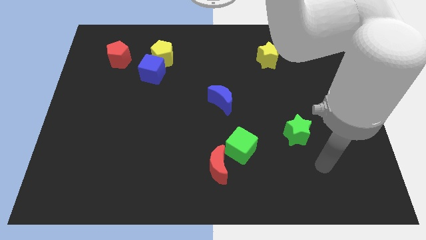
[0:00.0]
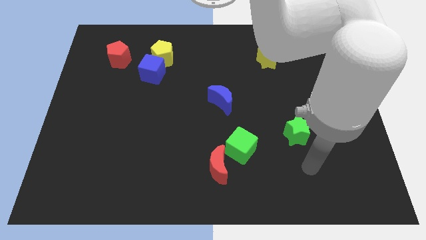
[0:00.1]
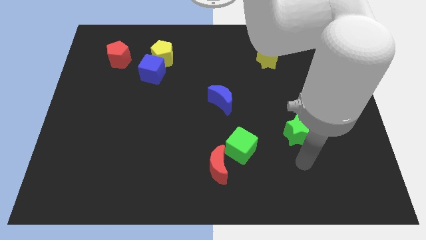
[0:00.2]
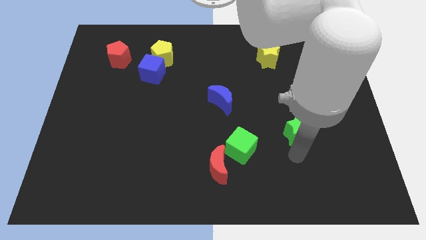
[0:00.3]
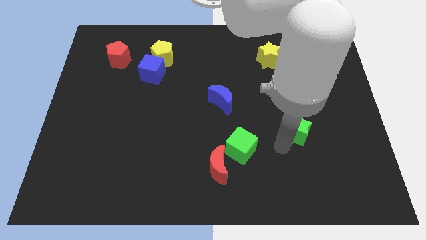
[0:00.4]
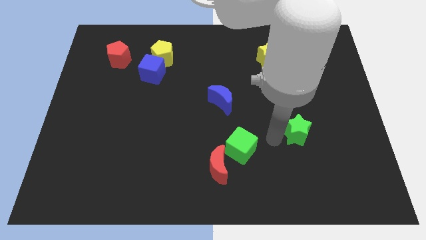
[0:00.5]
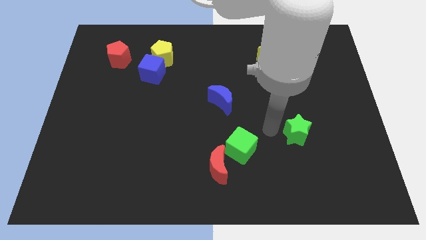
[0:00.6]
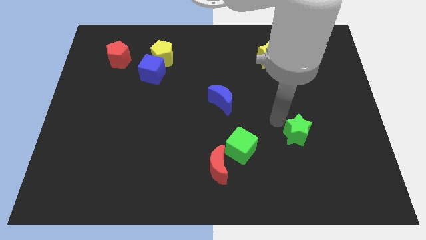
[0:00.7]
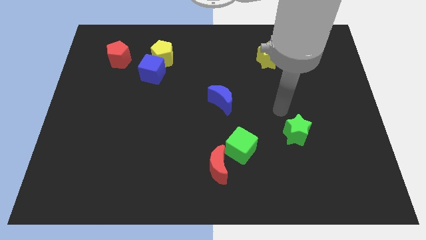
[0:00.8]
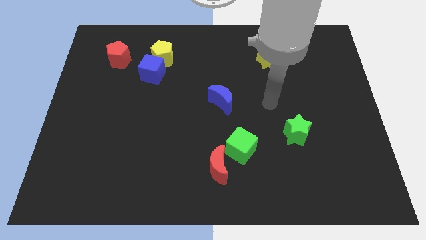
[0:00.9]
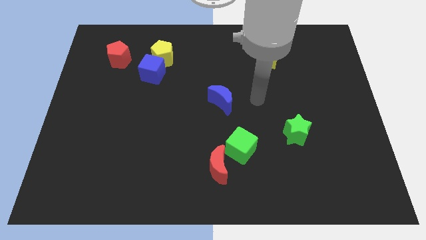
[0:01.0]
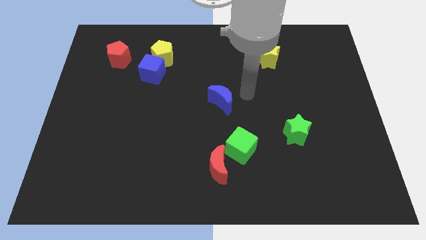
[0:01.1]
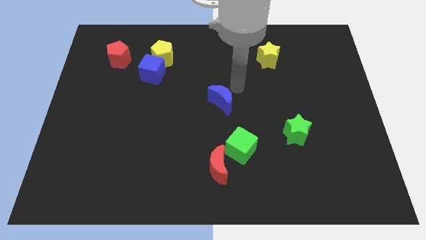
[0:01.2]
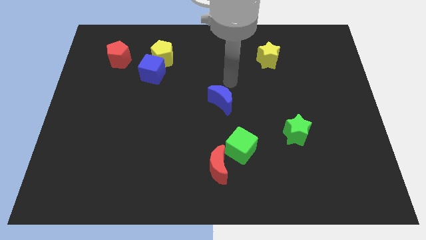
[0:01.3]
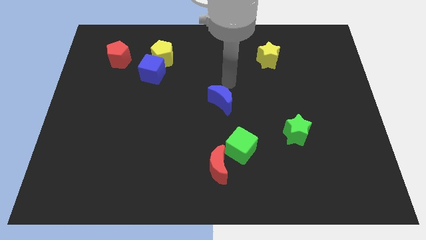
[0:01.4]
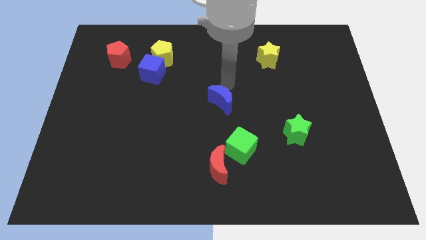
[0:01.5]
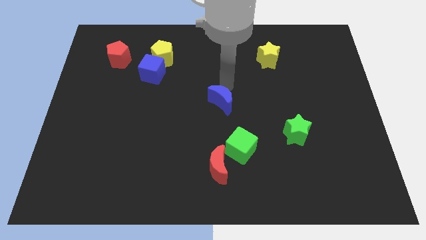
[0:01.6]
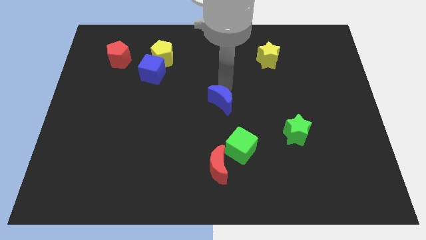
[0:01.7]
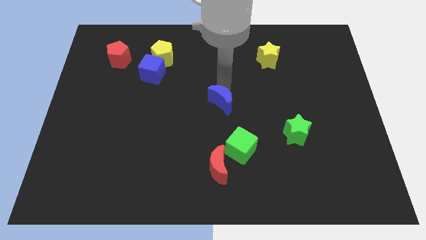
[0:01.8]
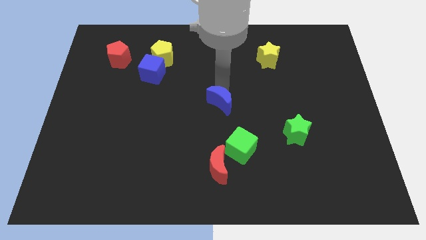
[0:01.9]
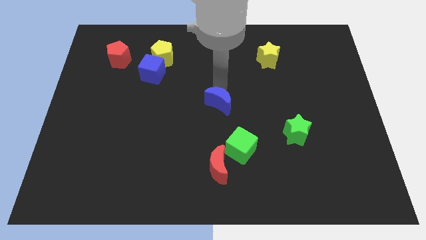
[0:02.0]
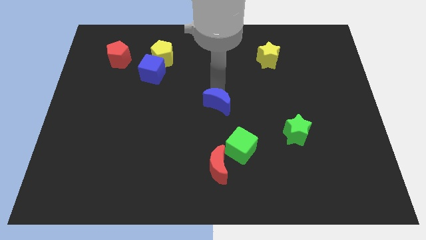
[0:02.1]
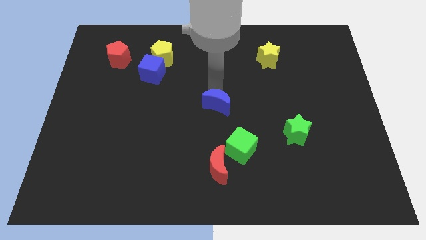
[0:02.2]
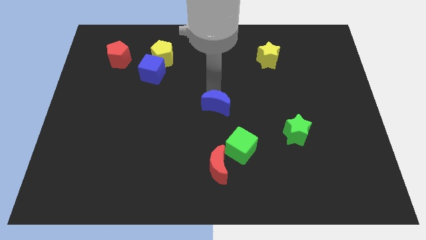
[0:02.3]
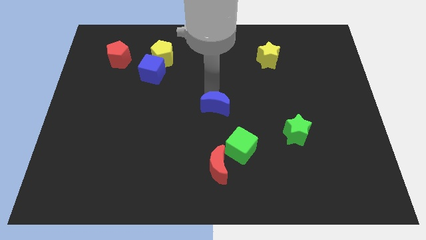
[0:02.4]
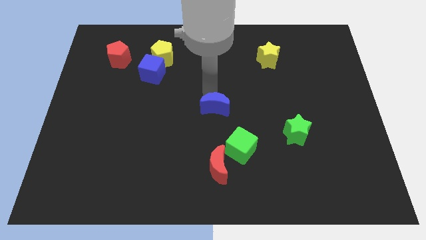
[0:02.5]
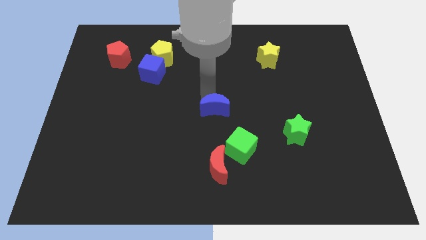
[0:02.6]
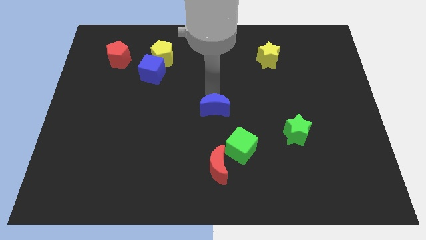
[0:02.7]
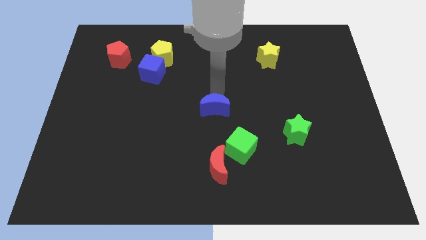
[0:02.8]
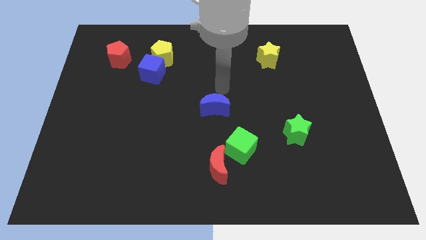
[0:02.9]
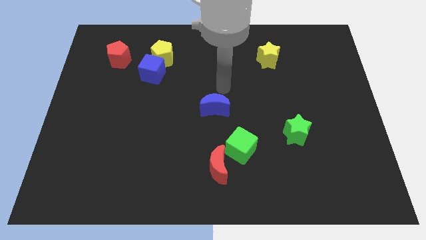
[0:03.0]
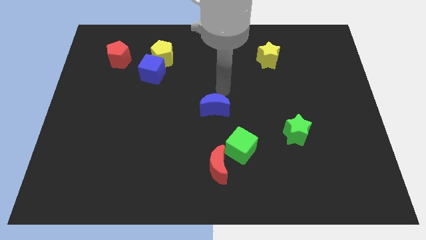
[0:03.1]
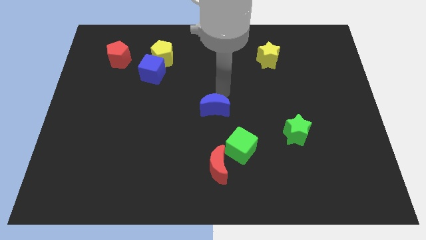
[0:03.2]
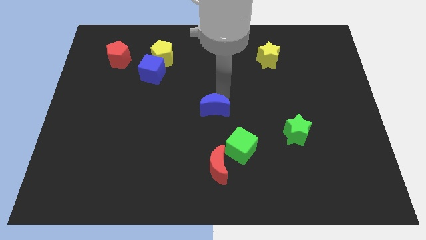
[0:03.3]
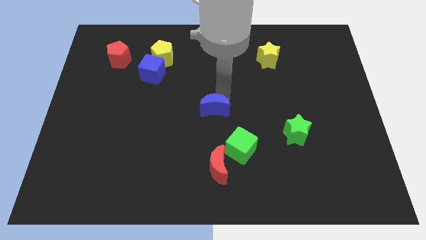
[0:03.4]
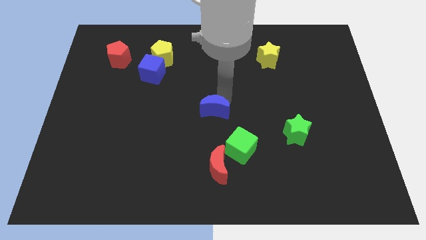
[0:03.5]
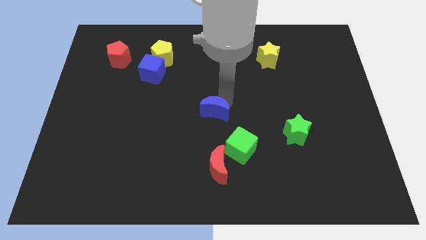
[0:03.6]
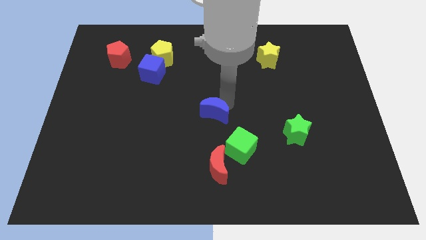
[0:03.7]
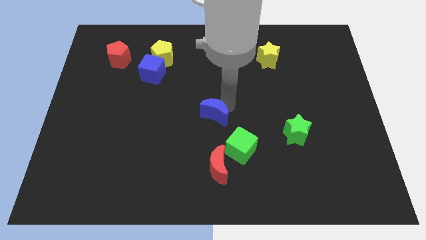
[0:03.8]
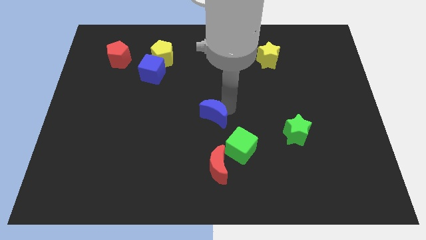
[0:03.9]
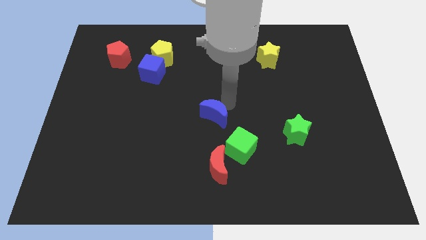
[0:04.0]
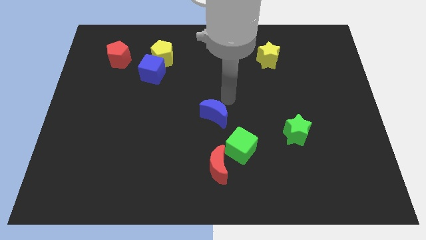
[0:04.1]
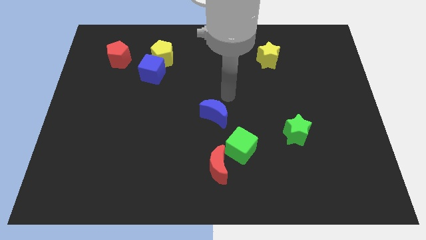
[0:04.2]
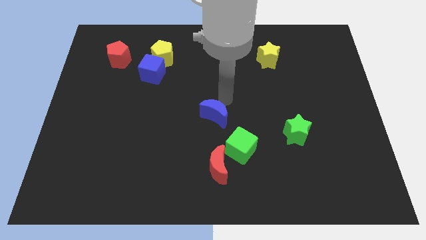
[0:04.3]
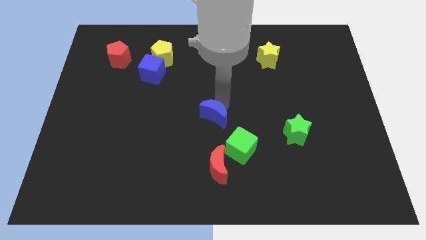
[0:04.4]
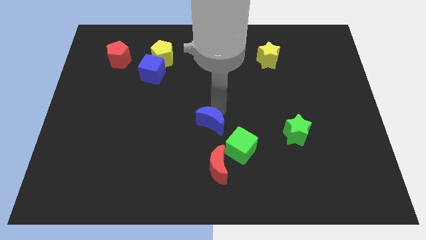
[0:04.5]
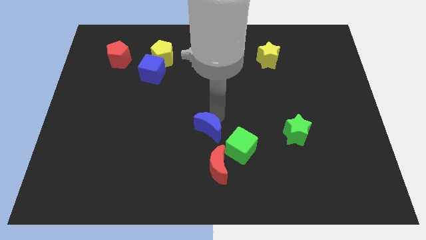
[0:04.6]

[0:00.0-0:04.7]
slightly move the blue moon down and then left

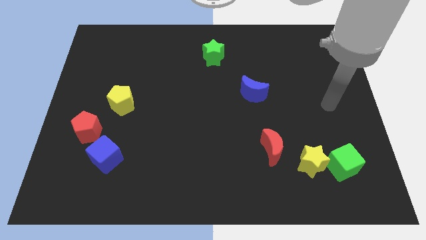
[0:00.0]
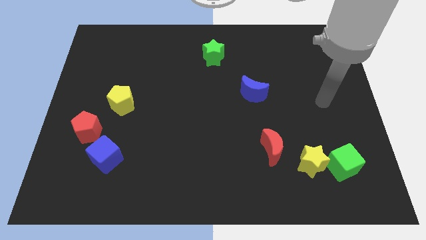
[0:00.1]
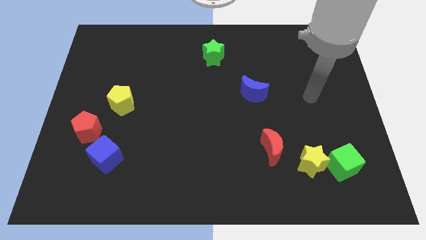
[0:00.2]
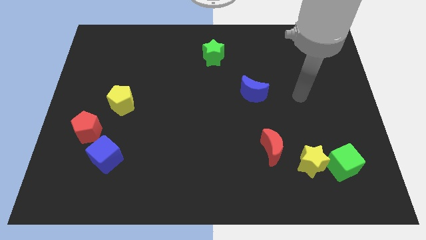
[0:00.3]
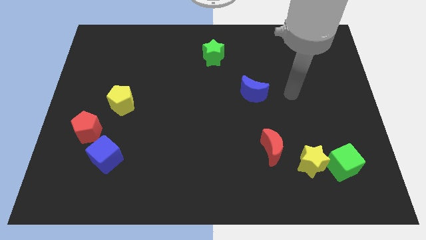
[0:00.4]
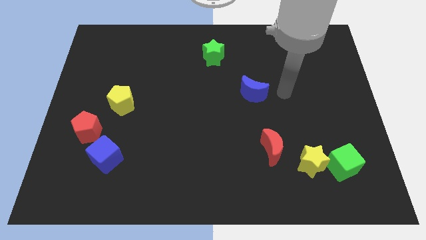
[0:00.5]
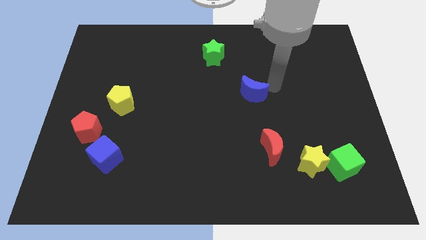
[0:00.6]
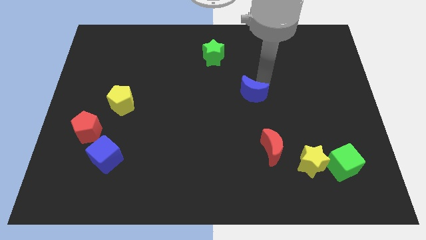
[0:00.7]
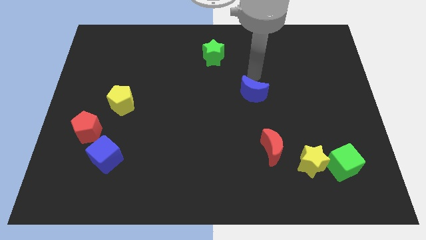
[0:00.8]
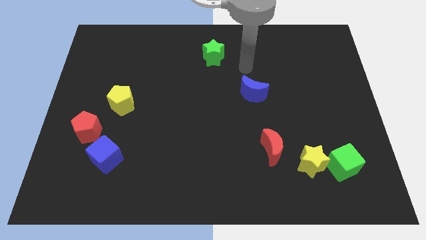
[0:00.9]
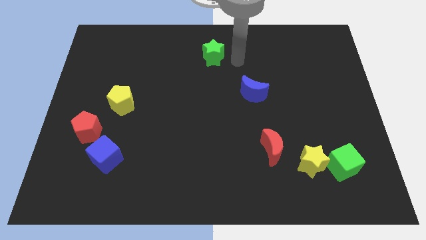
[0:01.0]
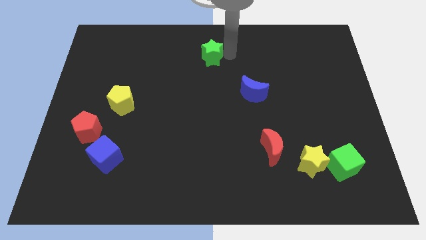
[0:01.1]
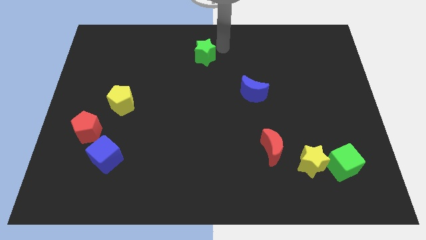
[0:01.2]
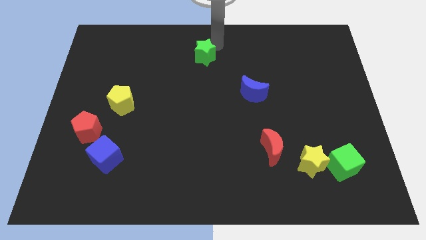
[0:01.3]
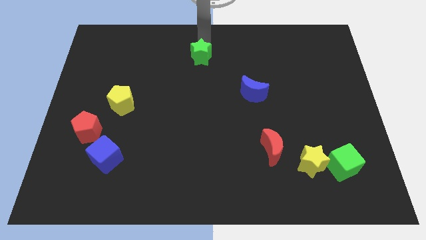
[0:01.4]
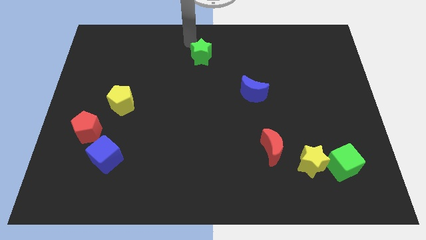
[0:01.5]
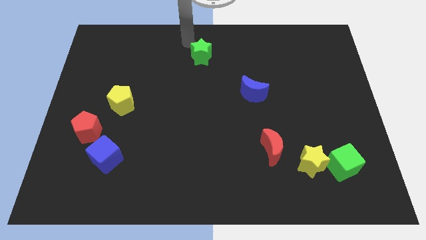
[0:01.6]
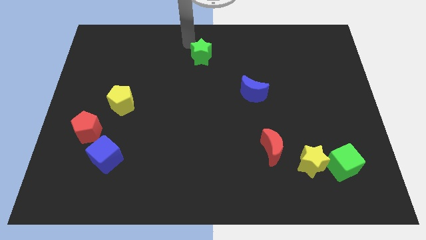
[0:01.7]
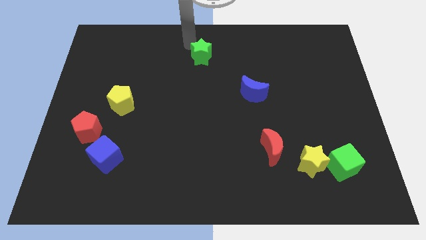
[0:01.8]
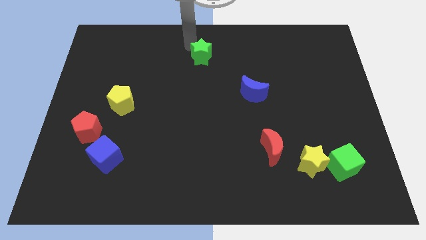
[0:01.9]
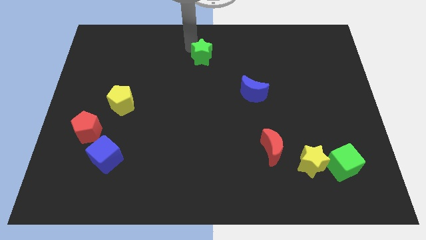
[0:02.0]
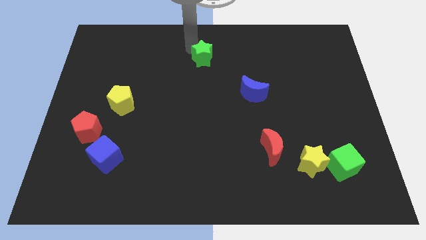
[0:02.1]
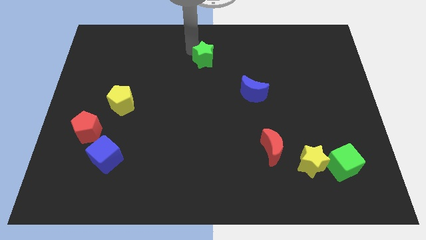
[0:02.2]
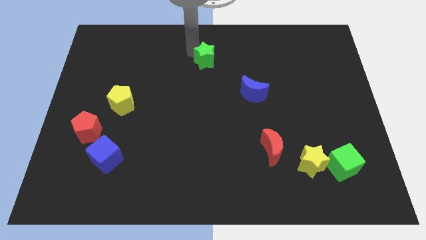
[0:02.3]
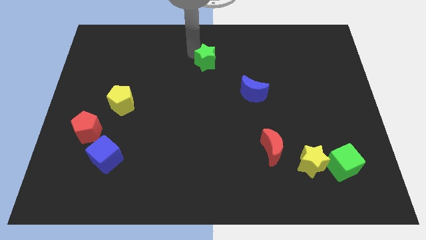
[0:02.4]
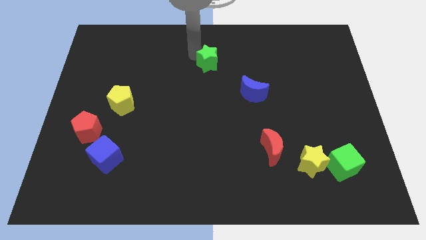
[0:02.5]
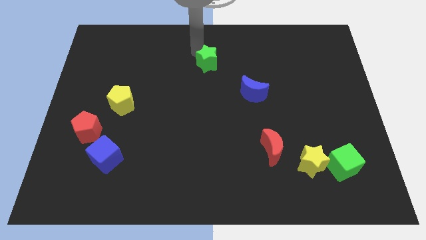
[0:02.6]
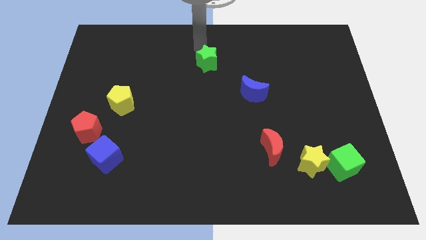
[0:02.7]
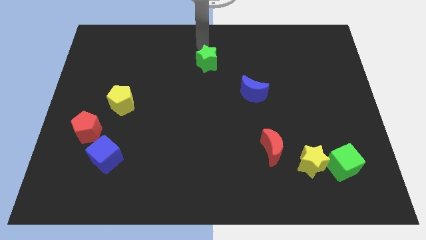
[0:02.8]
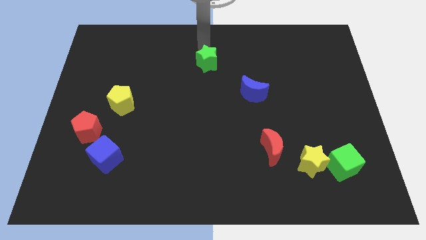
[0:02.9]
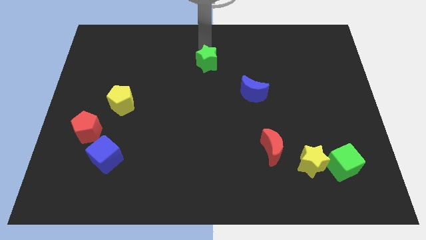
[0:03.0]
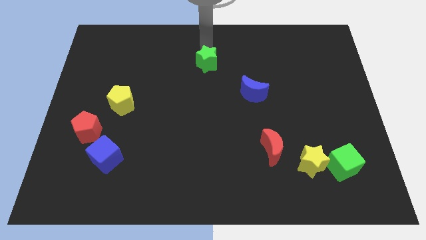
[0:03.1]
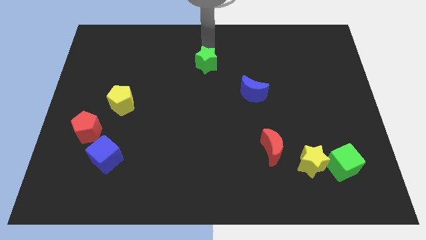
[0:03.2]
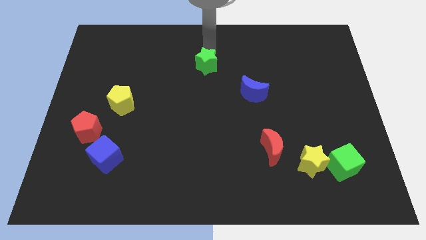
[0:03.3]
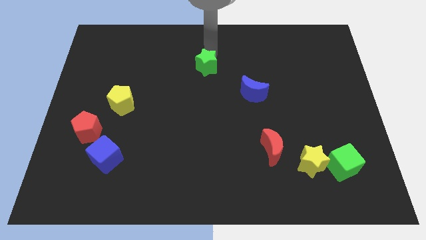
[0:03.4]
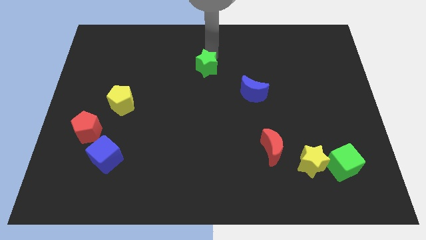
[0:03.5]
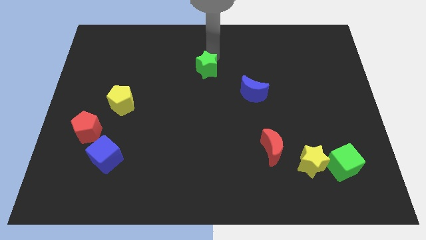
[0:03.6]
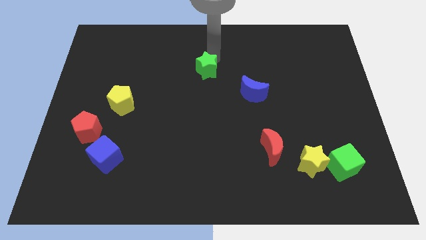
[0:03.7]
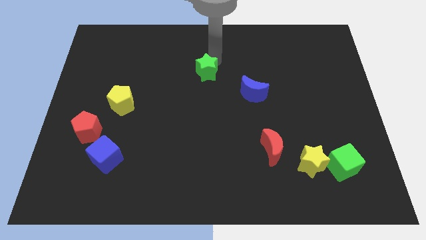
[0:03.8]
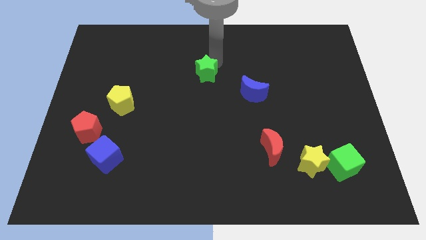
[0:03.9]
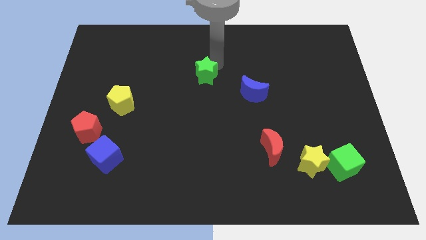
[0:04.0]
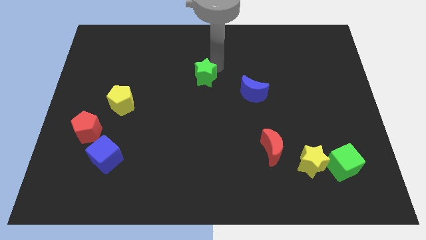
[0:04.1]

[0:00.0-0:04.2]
slightly slide the green star down
